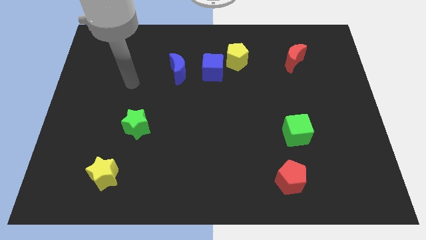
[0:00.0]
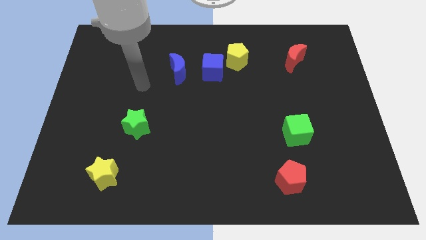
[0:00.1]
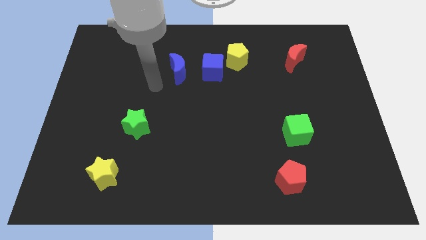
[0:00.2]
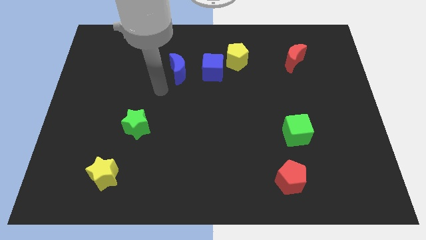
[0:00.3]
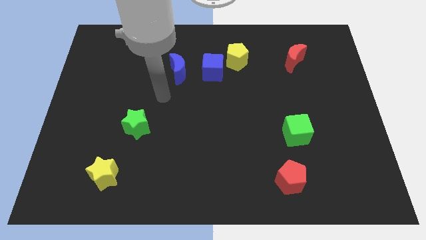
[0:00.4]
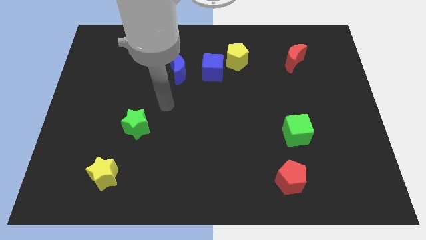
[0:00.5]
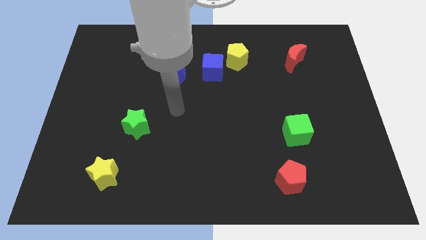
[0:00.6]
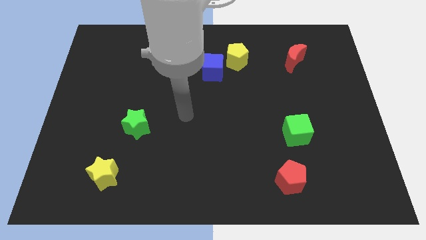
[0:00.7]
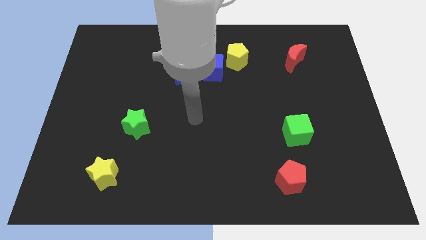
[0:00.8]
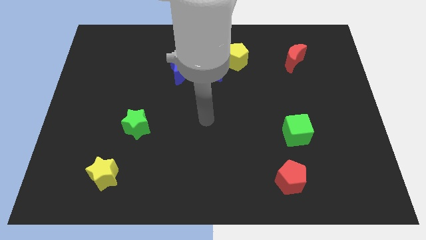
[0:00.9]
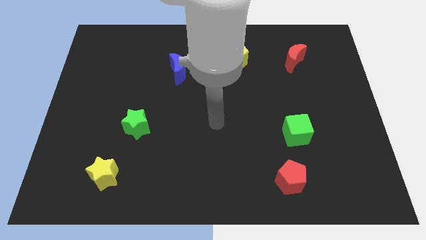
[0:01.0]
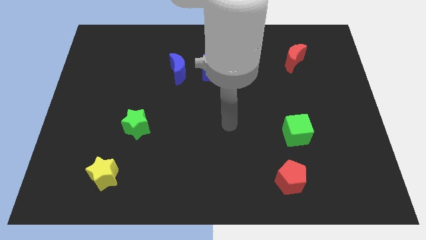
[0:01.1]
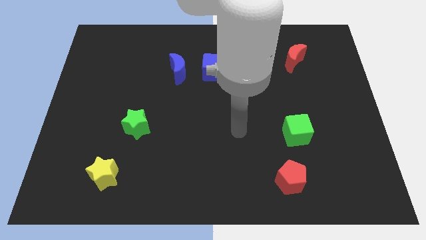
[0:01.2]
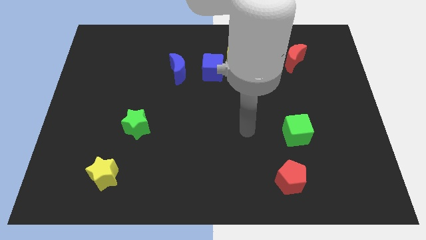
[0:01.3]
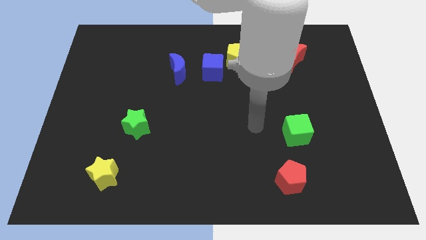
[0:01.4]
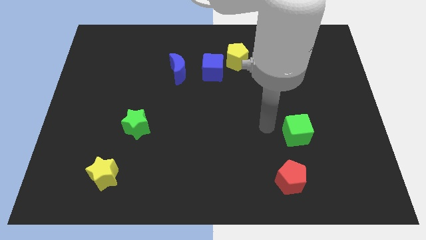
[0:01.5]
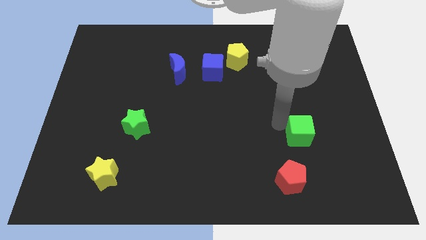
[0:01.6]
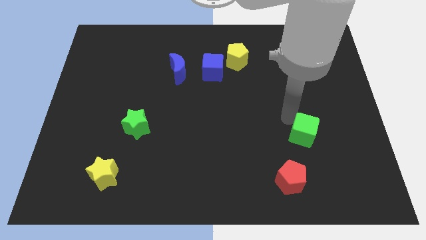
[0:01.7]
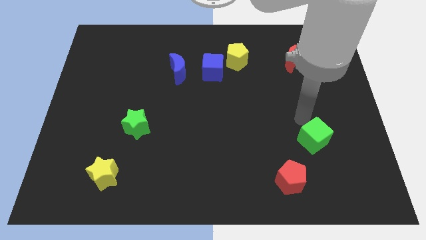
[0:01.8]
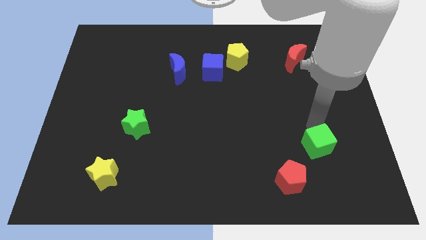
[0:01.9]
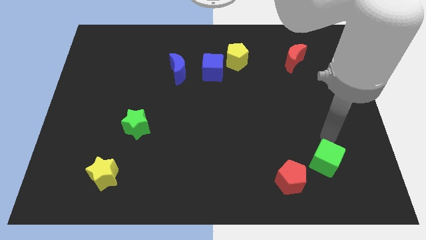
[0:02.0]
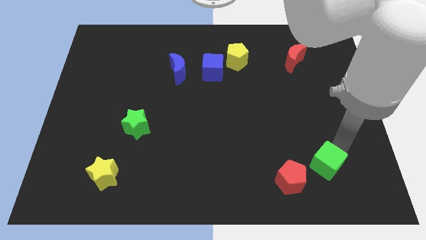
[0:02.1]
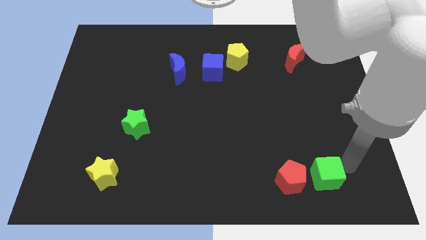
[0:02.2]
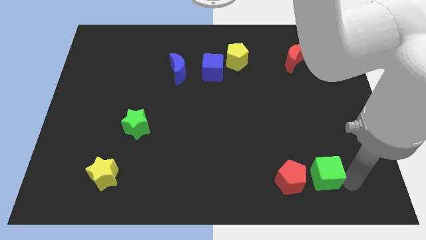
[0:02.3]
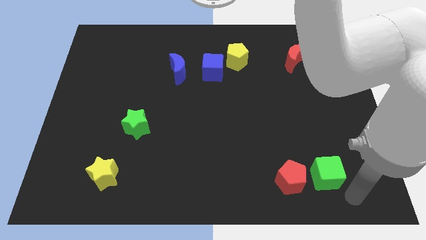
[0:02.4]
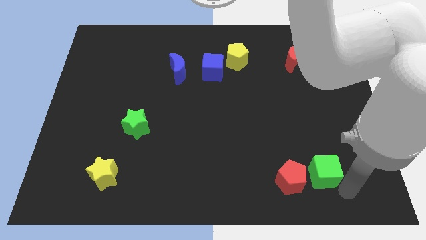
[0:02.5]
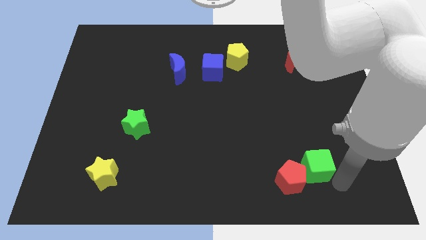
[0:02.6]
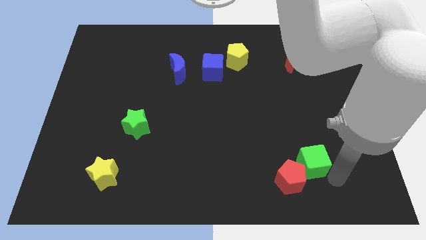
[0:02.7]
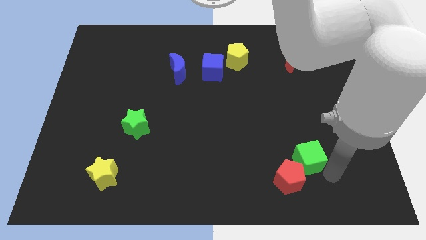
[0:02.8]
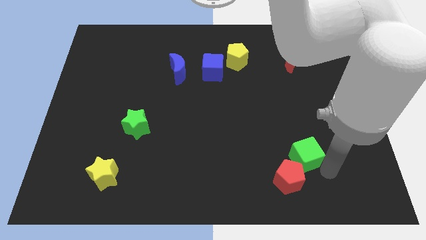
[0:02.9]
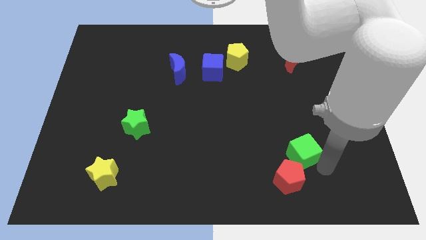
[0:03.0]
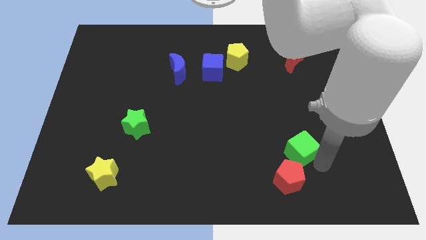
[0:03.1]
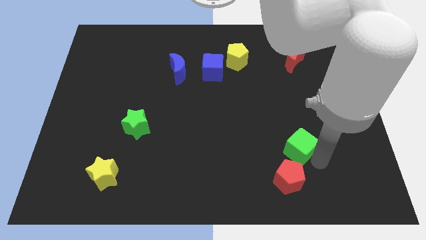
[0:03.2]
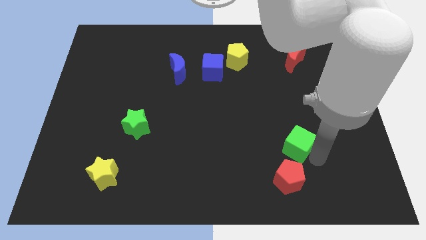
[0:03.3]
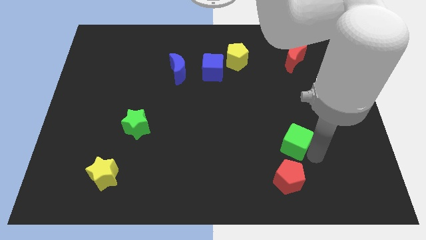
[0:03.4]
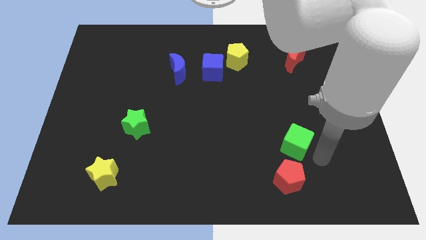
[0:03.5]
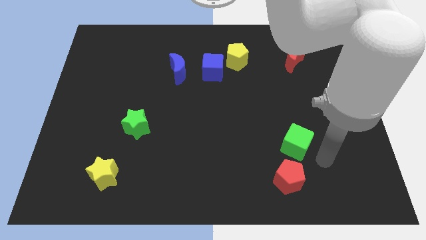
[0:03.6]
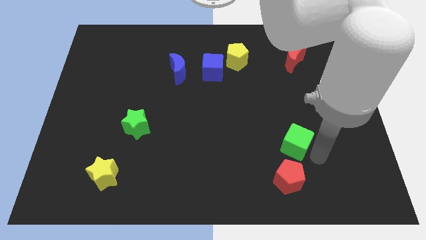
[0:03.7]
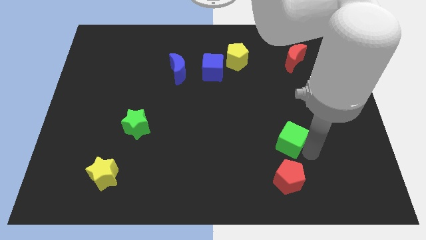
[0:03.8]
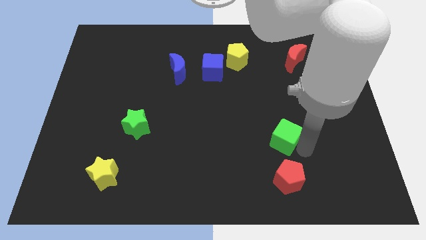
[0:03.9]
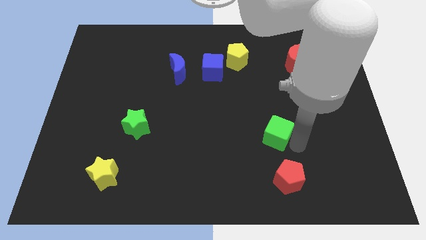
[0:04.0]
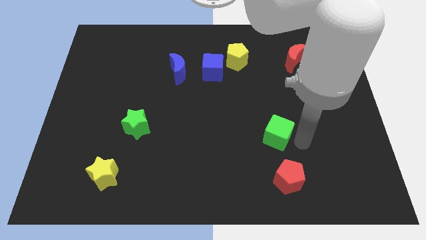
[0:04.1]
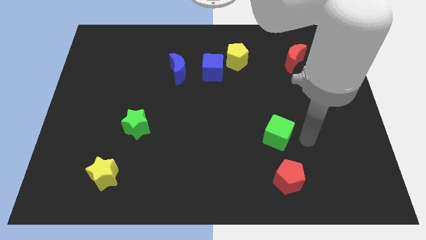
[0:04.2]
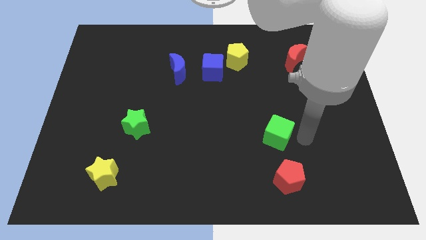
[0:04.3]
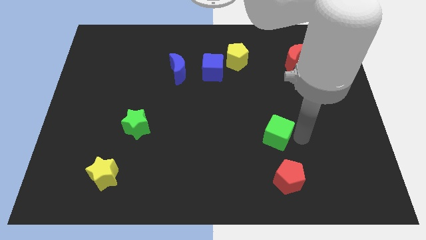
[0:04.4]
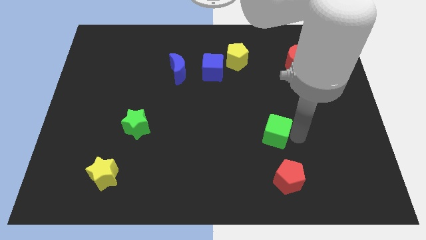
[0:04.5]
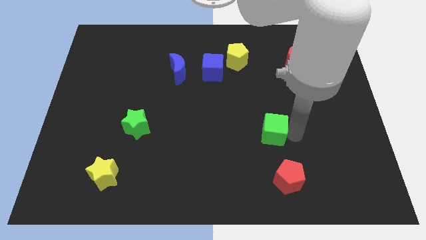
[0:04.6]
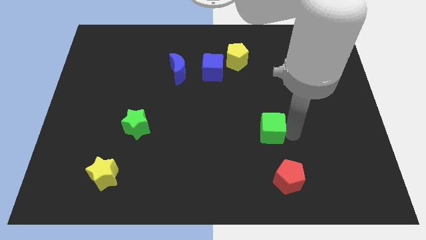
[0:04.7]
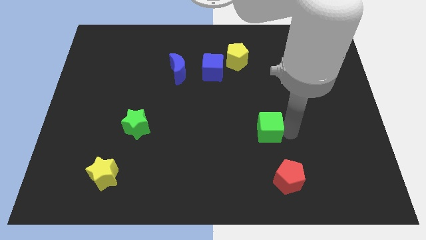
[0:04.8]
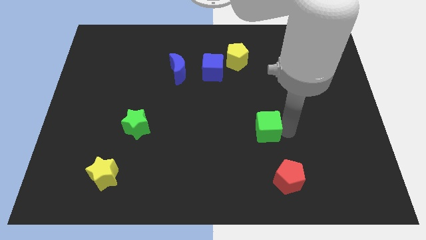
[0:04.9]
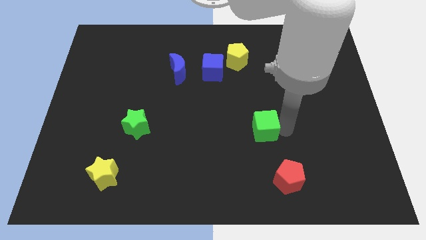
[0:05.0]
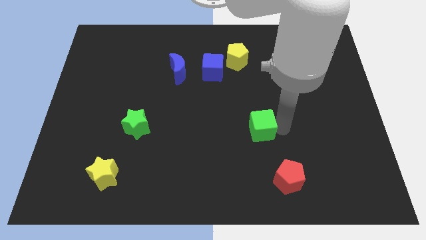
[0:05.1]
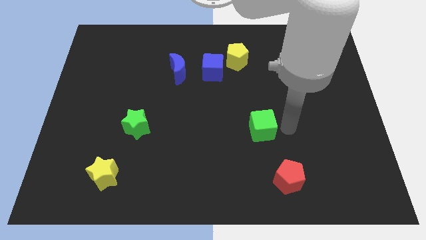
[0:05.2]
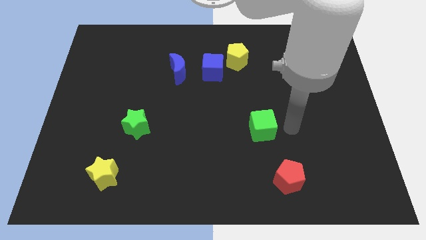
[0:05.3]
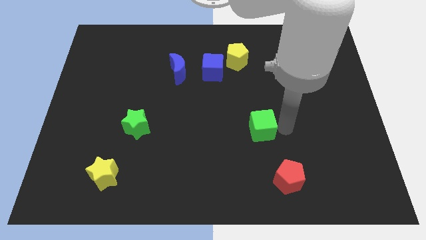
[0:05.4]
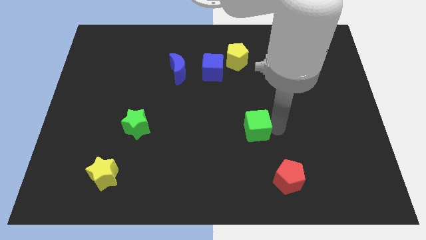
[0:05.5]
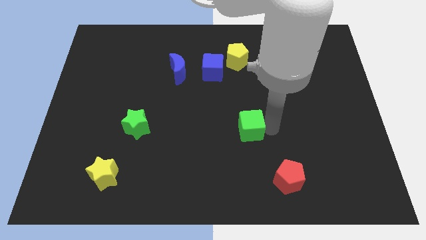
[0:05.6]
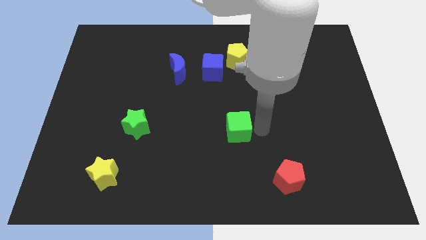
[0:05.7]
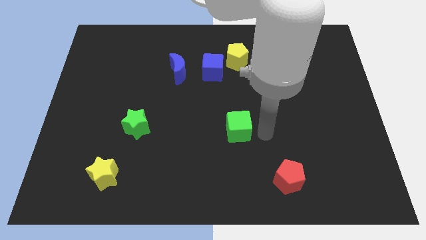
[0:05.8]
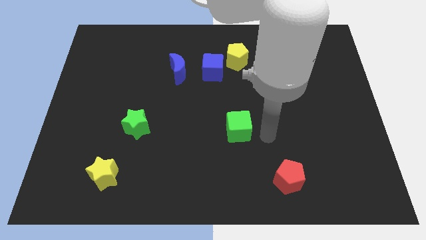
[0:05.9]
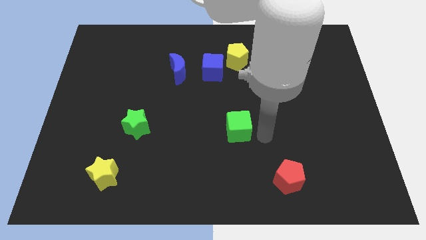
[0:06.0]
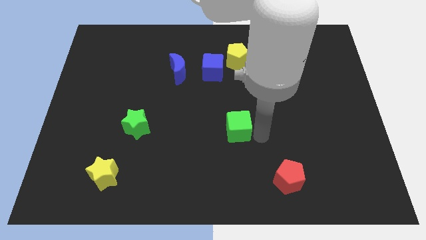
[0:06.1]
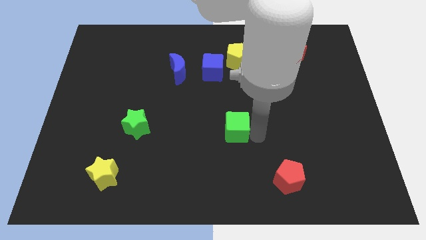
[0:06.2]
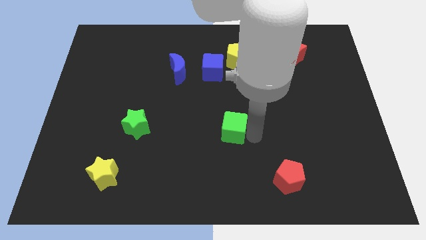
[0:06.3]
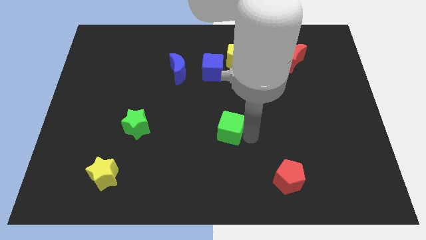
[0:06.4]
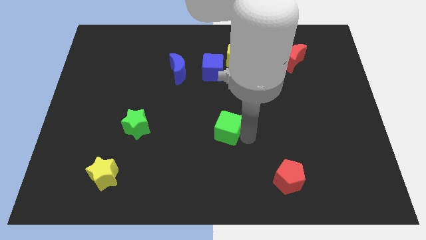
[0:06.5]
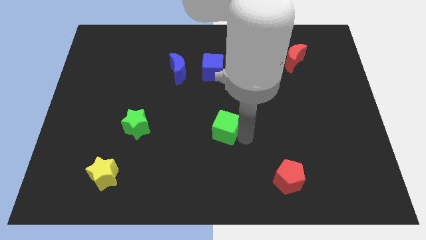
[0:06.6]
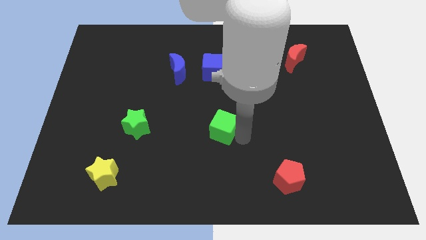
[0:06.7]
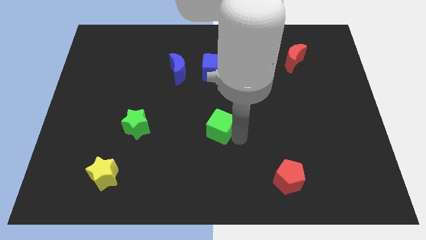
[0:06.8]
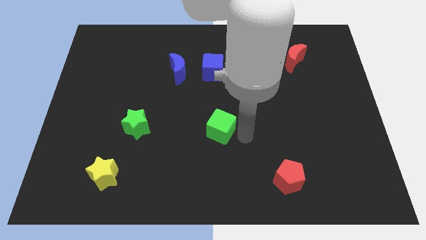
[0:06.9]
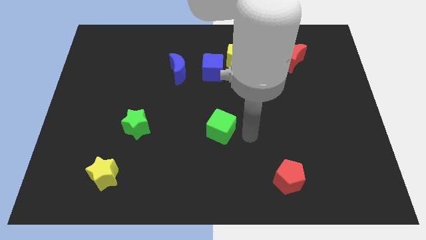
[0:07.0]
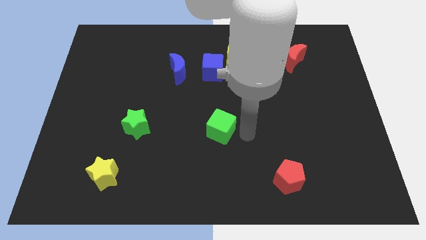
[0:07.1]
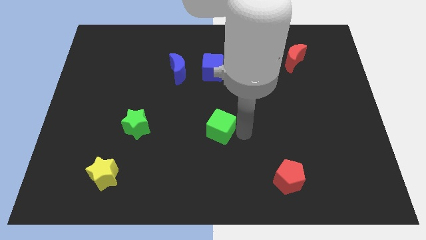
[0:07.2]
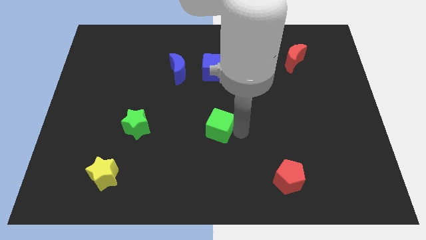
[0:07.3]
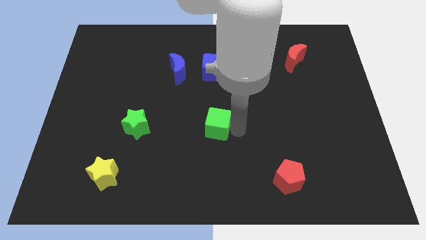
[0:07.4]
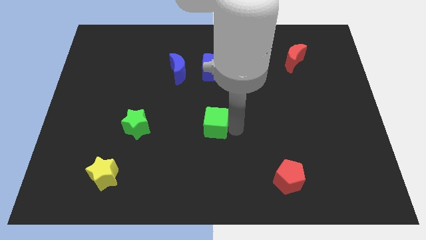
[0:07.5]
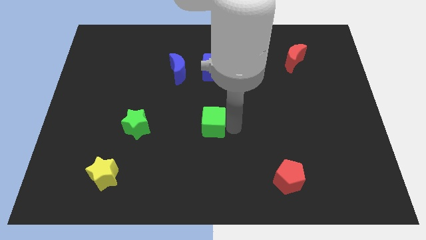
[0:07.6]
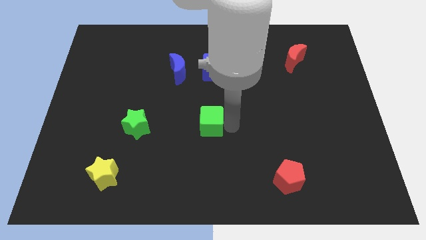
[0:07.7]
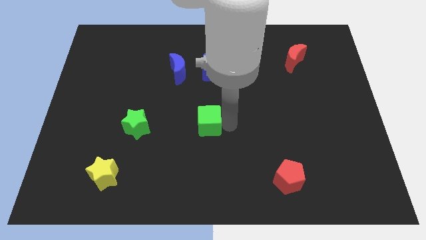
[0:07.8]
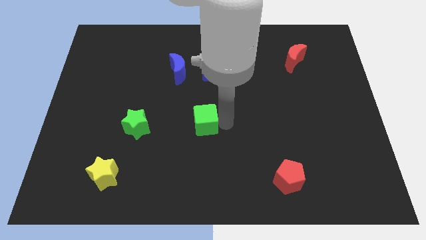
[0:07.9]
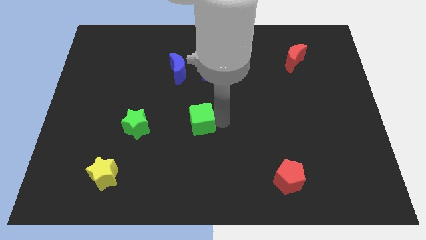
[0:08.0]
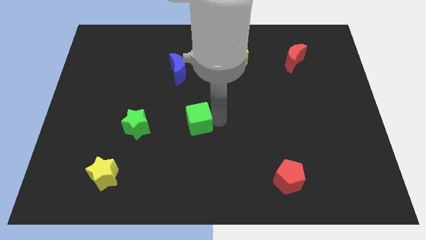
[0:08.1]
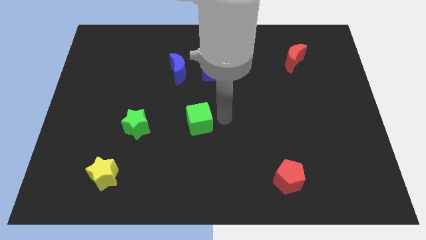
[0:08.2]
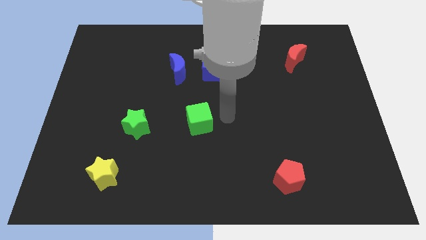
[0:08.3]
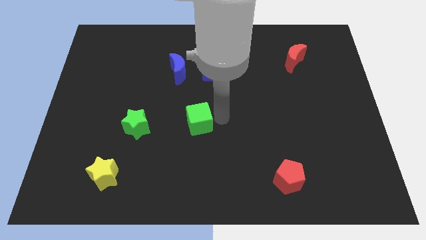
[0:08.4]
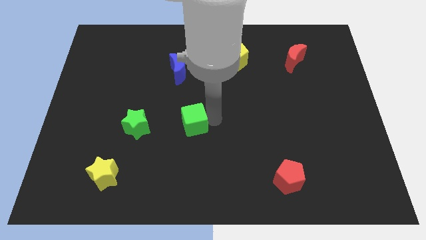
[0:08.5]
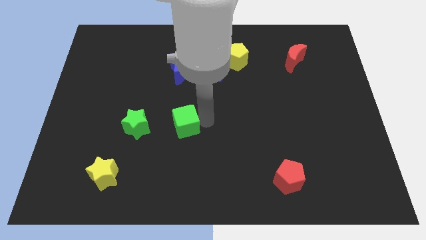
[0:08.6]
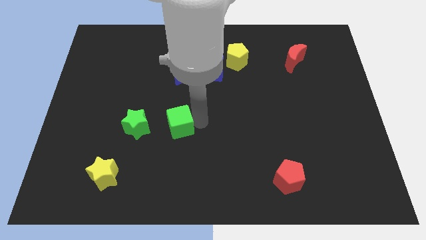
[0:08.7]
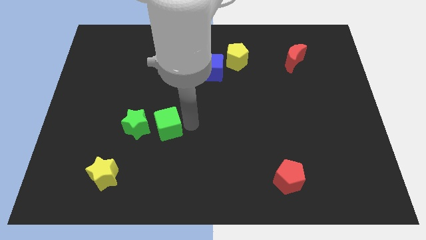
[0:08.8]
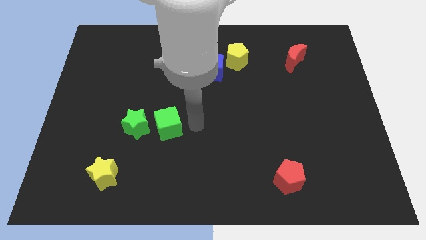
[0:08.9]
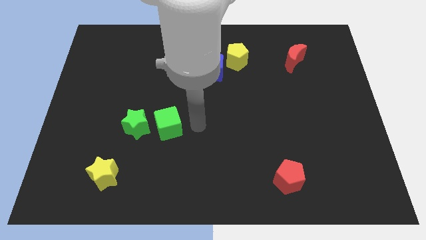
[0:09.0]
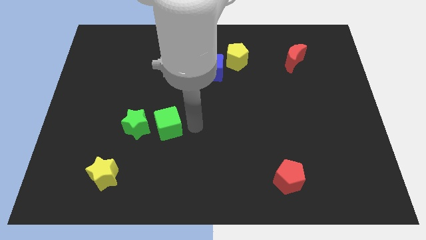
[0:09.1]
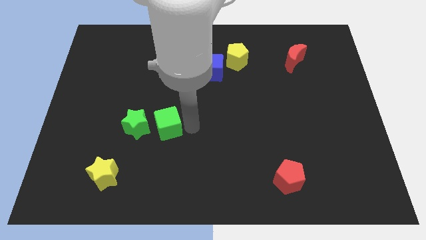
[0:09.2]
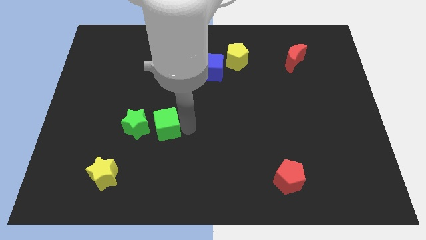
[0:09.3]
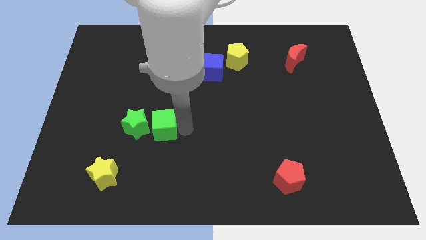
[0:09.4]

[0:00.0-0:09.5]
push the green cube towards the green star
